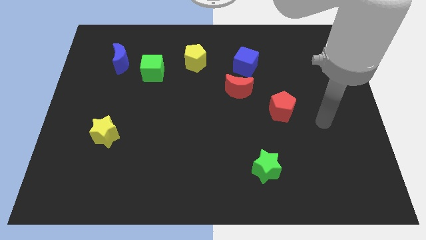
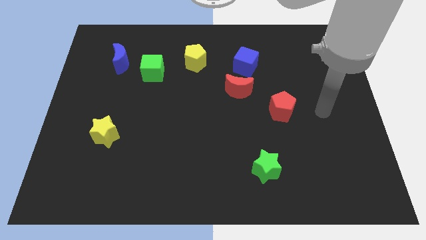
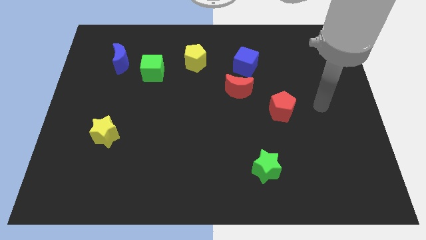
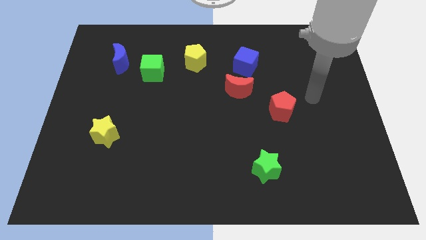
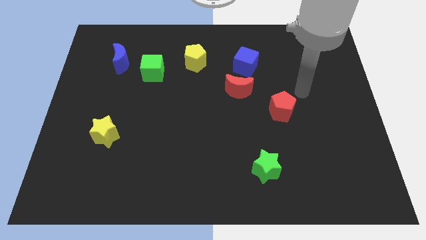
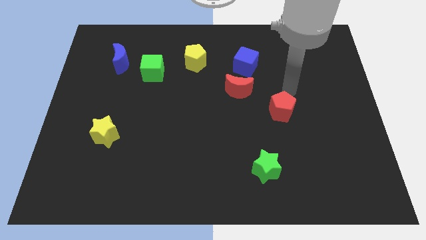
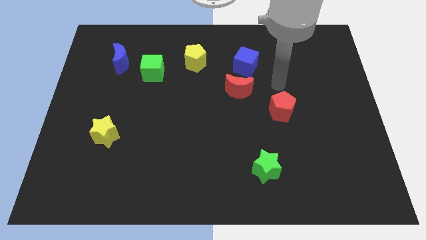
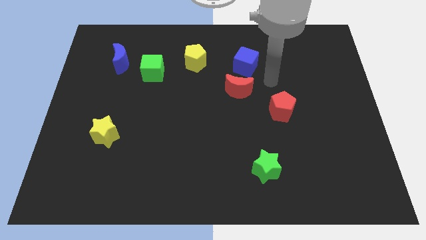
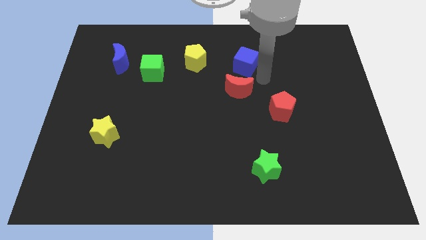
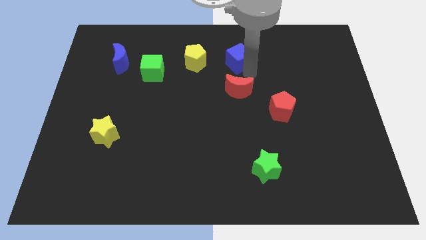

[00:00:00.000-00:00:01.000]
pull the red moon apart from the blue cube

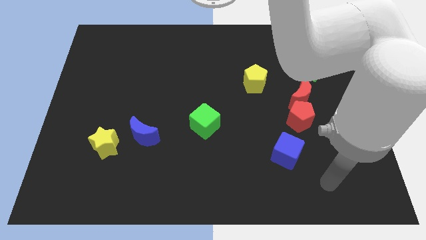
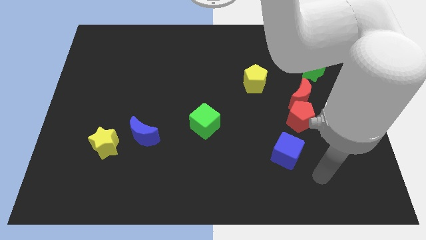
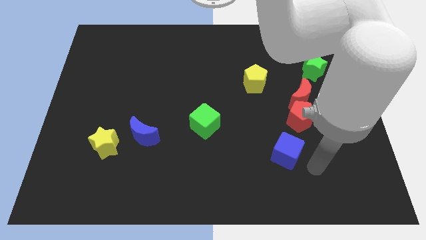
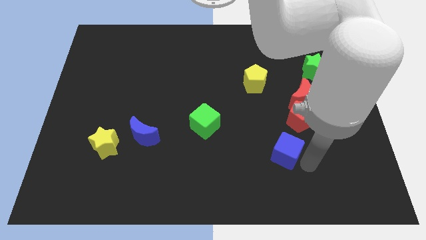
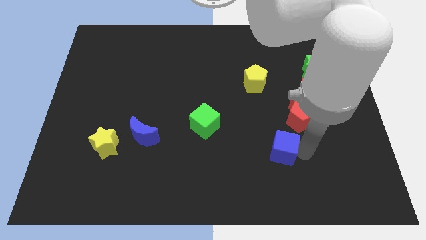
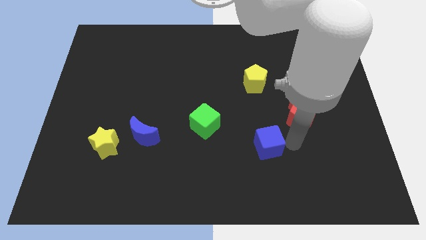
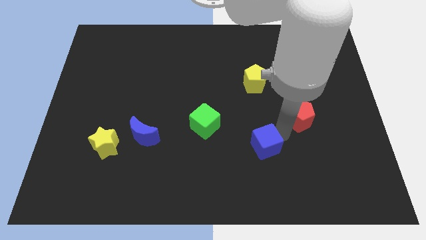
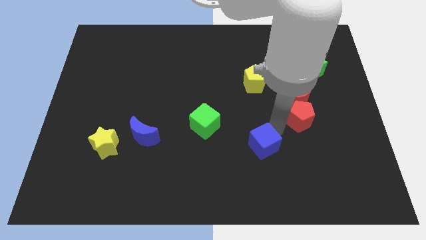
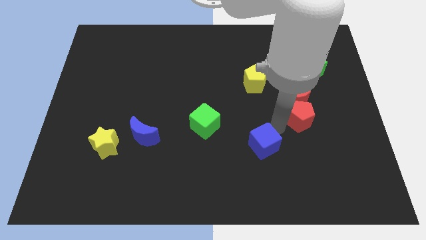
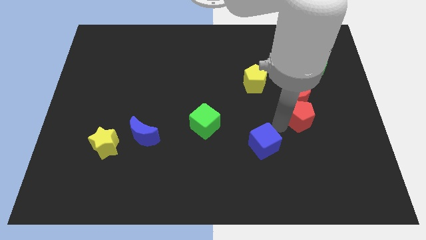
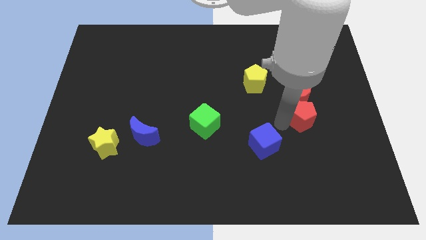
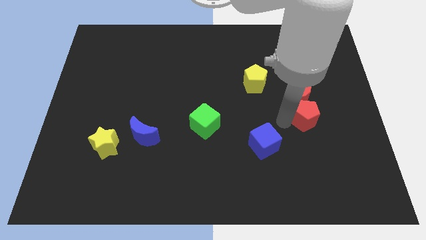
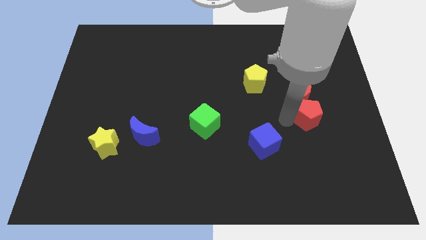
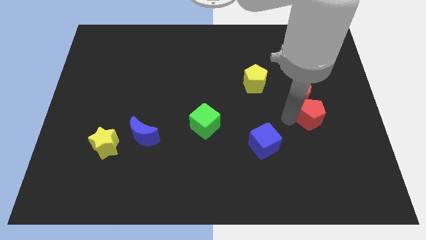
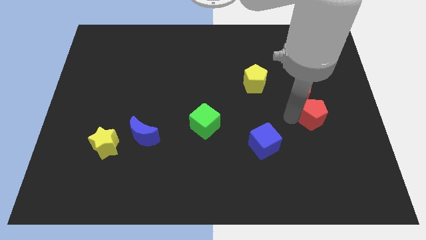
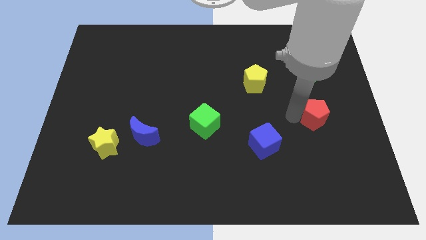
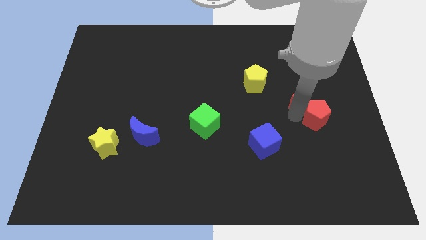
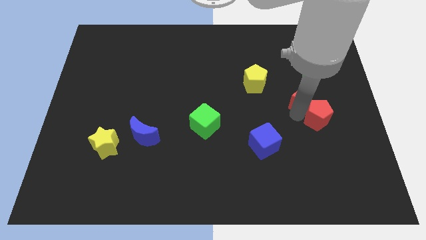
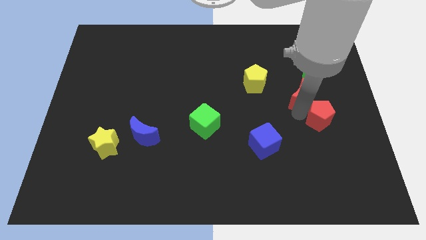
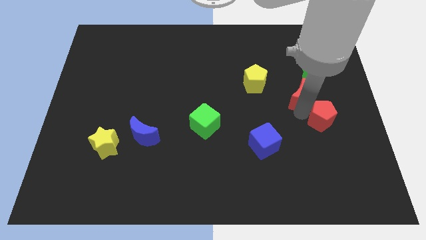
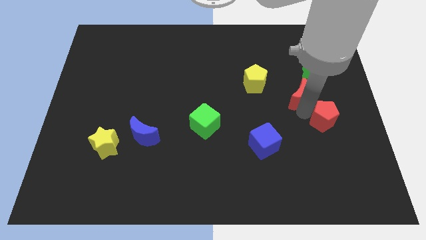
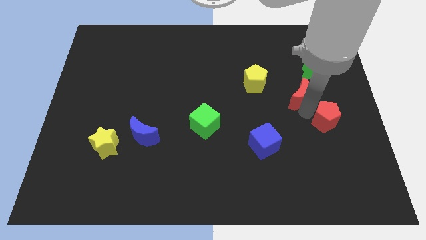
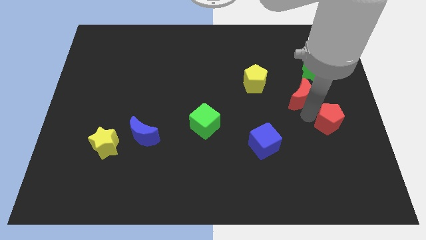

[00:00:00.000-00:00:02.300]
move the red pentagon away from the red moon and blue cube

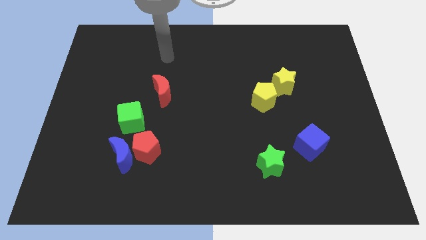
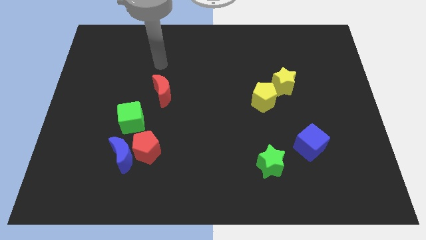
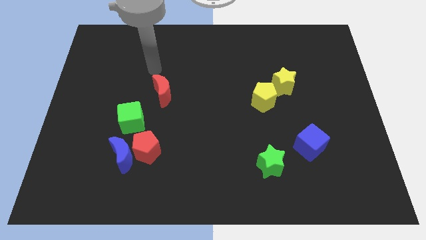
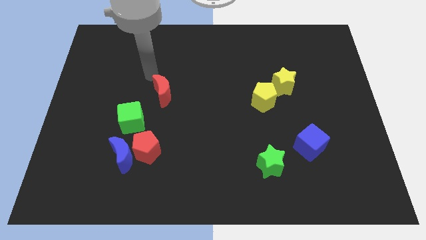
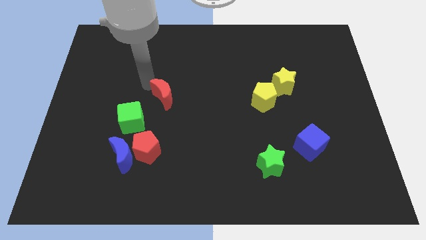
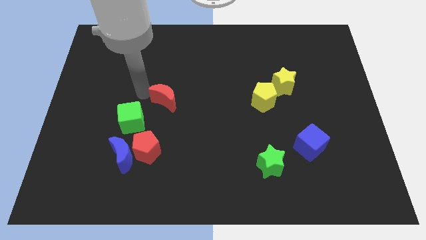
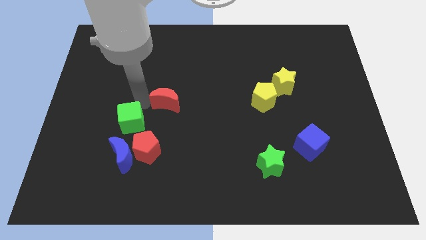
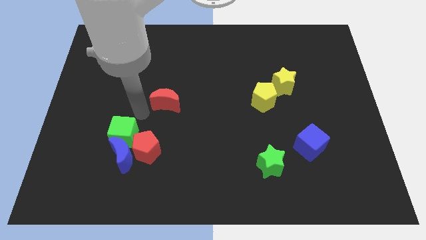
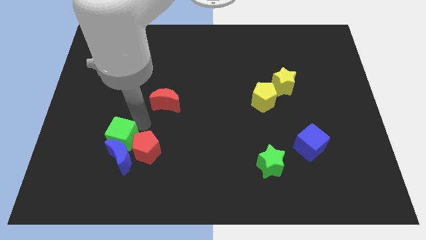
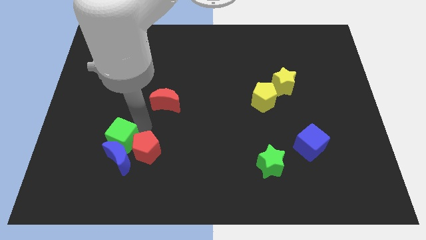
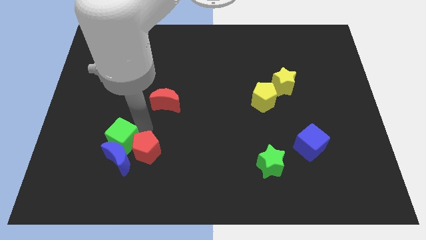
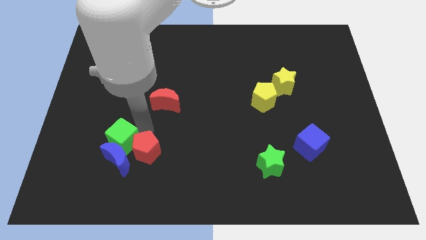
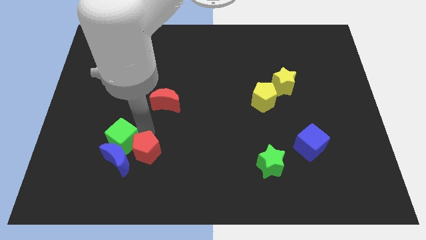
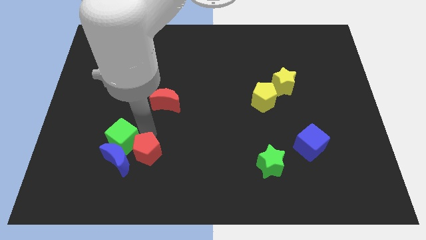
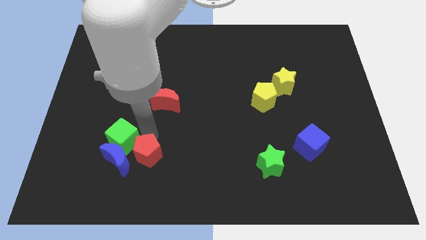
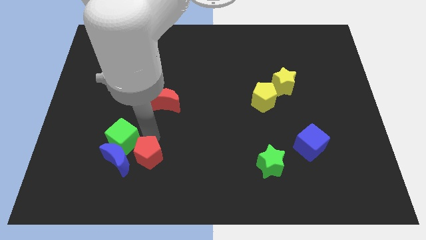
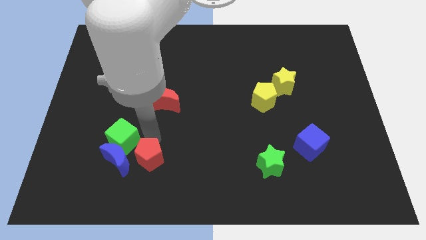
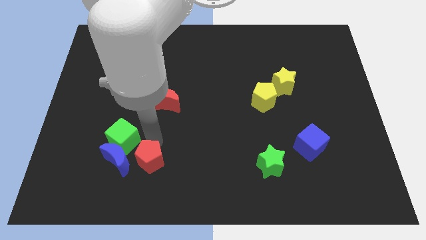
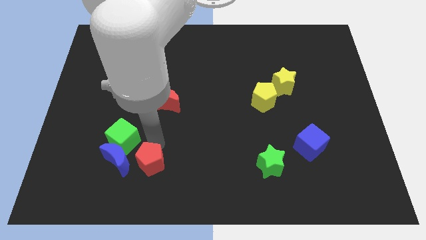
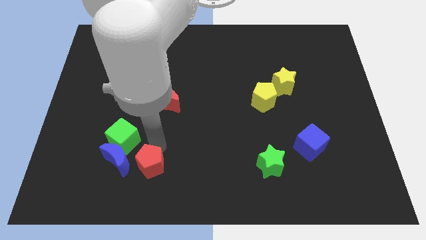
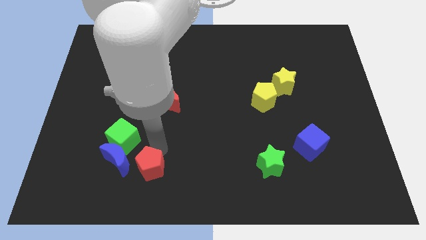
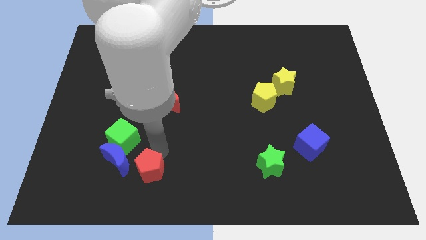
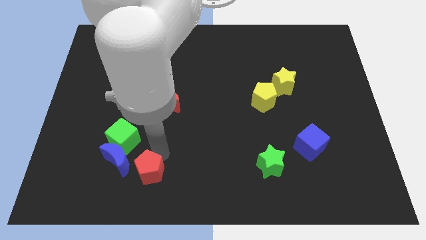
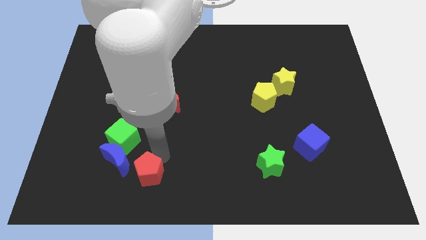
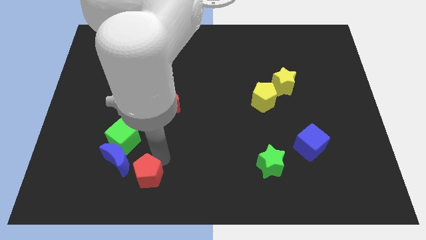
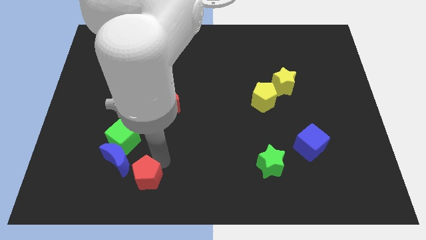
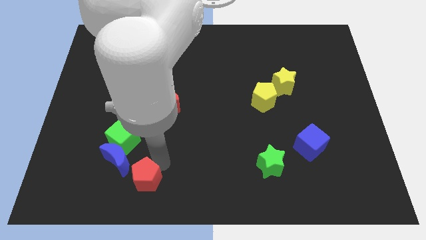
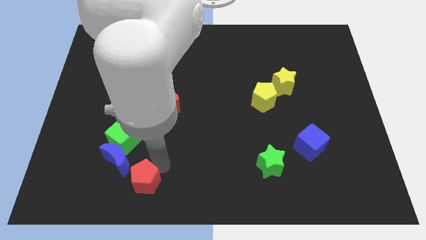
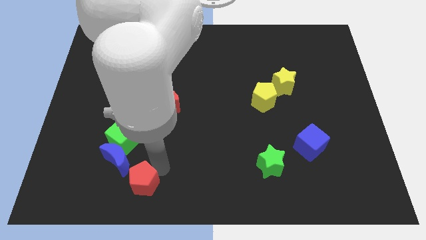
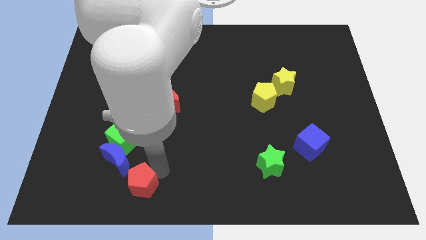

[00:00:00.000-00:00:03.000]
move the red pentagon away from the blue moon and green cube

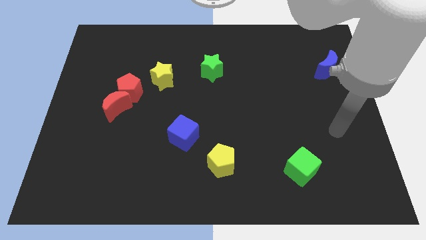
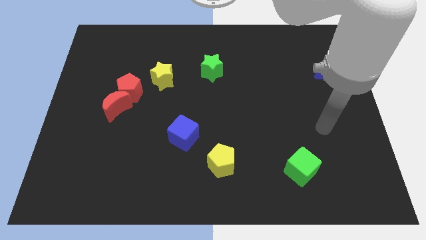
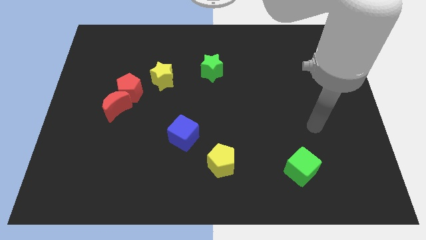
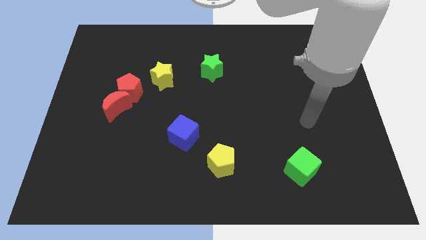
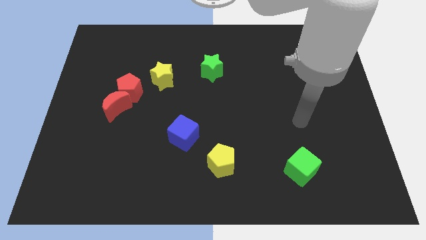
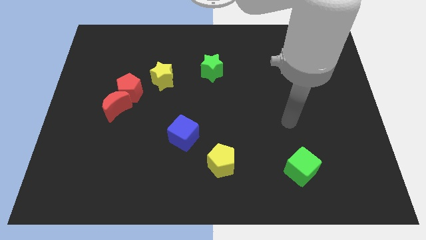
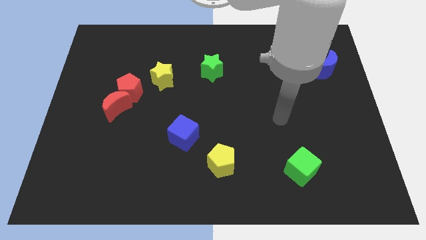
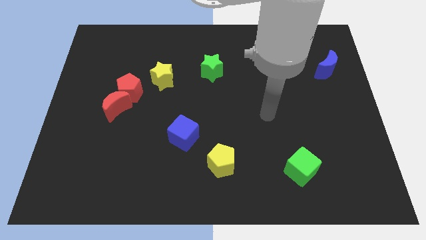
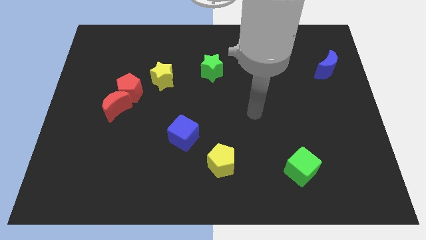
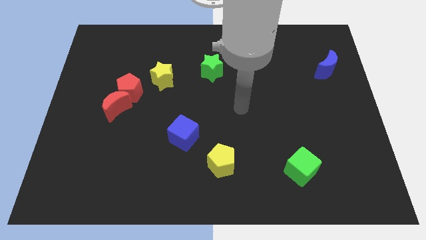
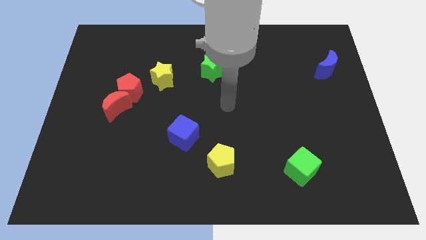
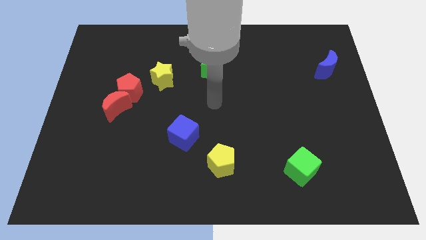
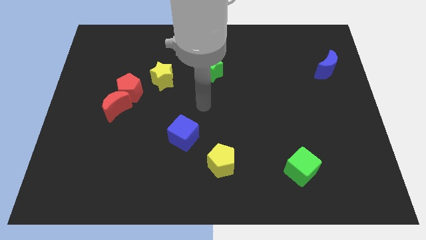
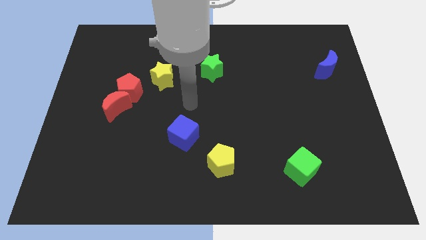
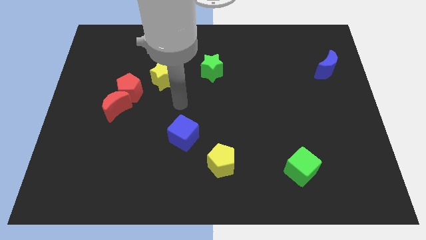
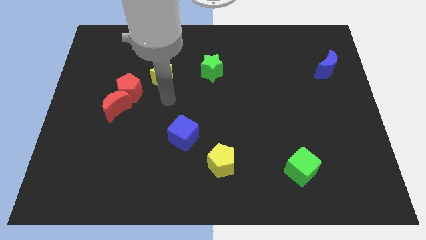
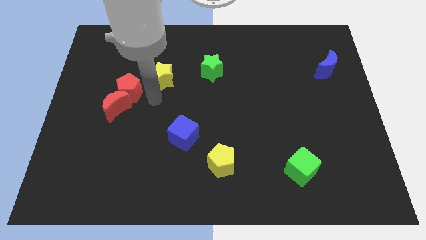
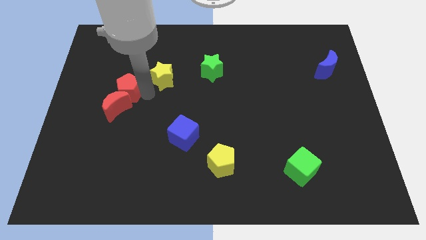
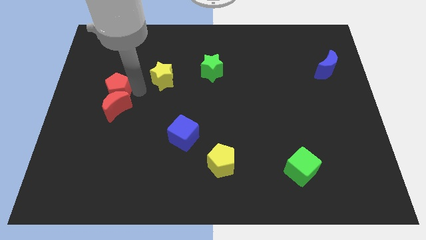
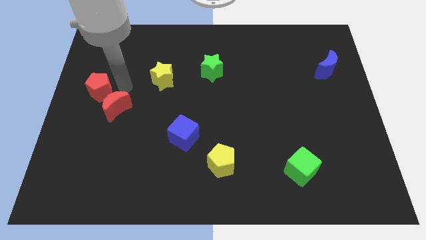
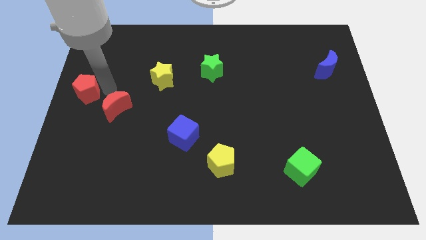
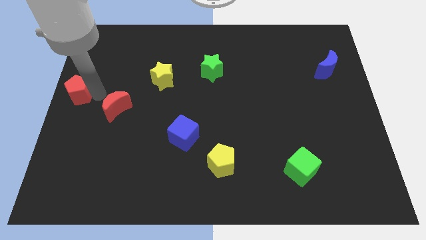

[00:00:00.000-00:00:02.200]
move the red moon away from the red pentagon

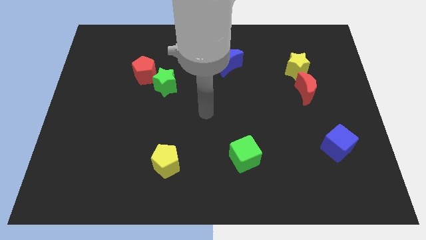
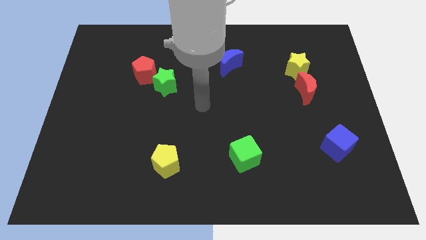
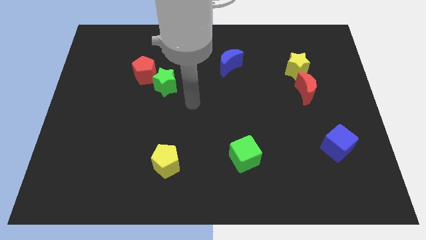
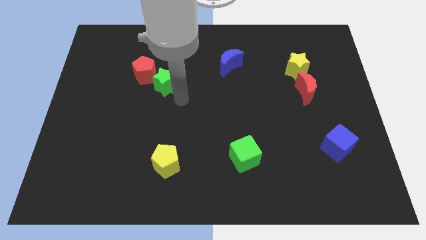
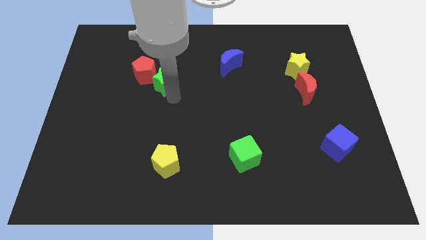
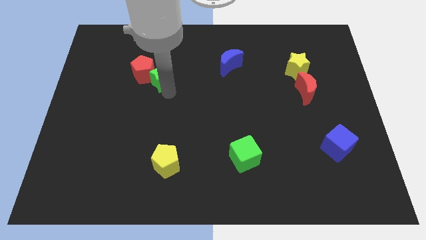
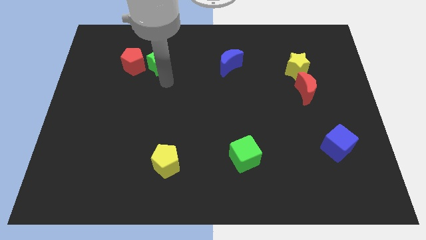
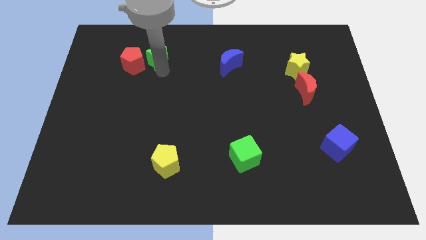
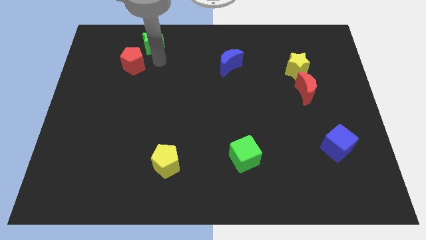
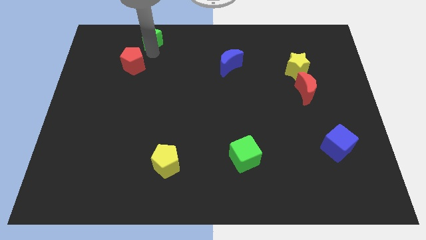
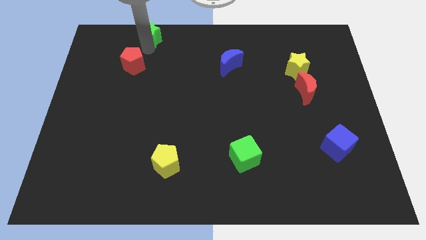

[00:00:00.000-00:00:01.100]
pull the red pentagon apart from the green star
